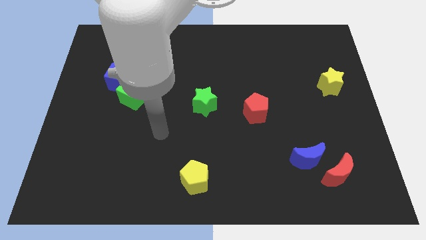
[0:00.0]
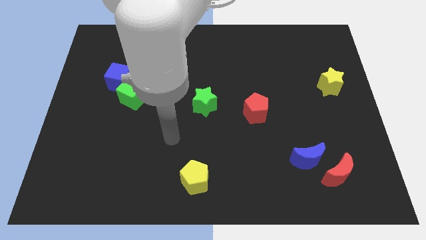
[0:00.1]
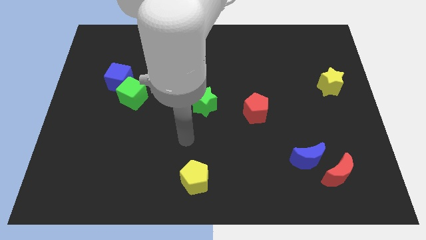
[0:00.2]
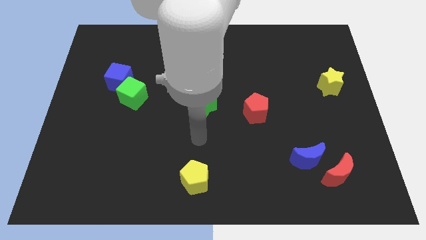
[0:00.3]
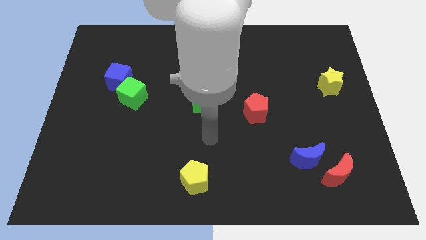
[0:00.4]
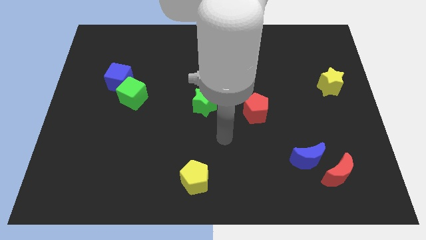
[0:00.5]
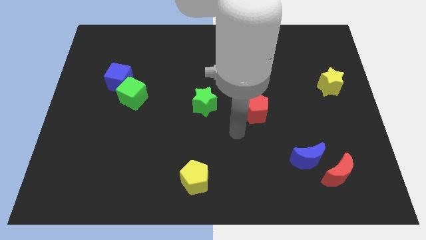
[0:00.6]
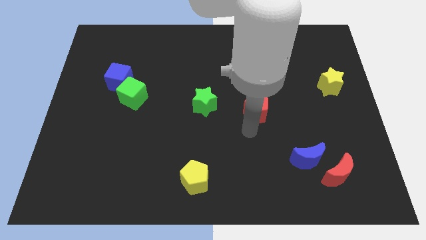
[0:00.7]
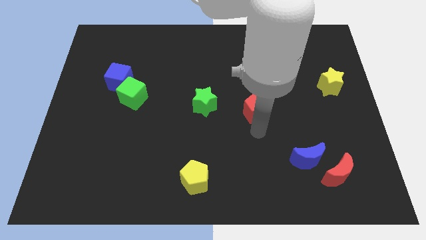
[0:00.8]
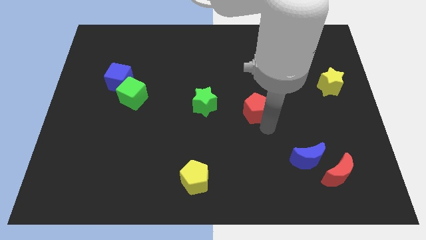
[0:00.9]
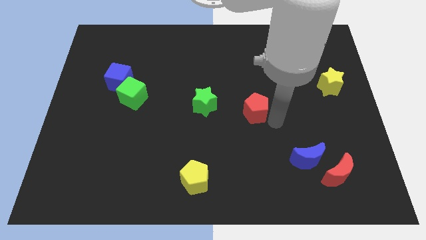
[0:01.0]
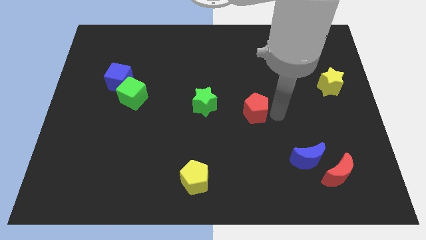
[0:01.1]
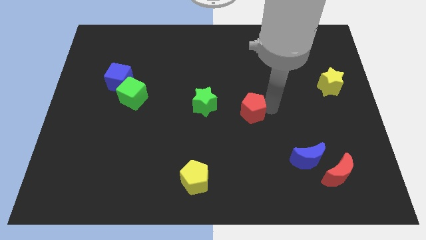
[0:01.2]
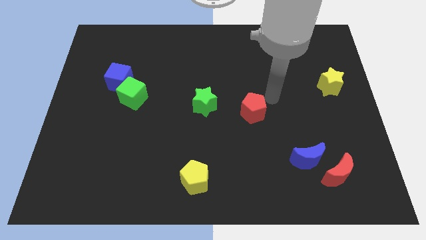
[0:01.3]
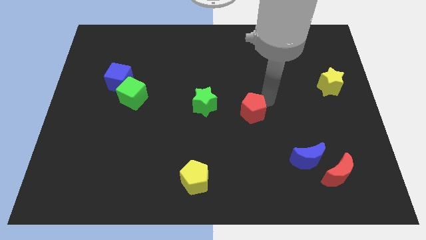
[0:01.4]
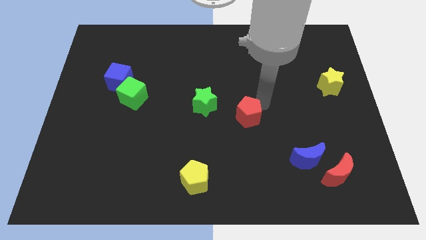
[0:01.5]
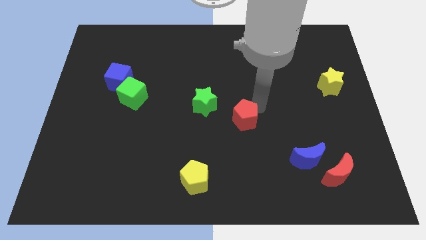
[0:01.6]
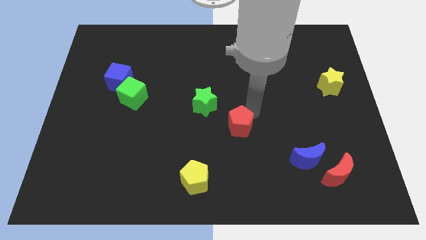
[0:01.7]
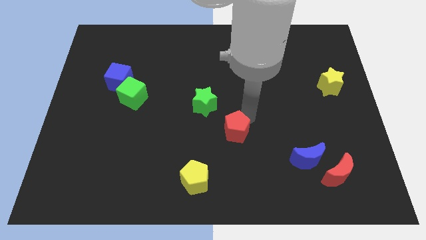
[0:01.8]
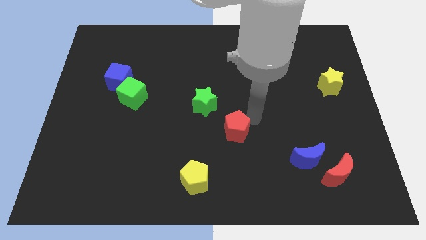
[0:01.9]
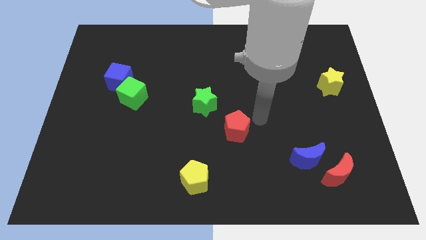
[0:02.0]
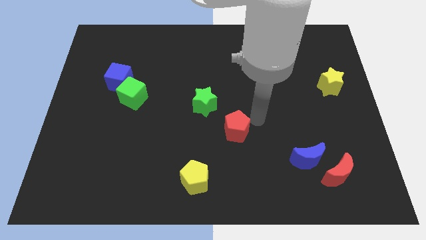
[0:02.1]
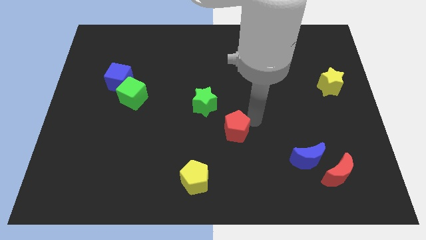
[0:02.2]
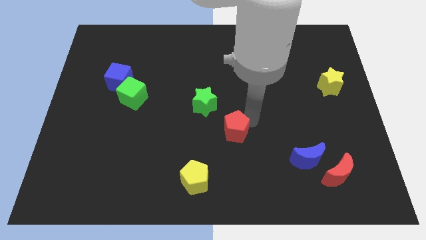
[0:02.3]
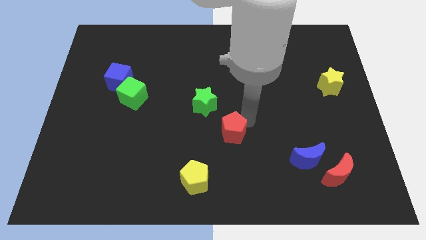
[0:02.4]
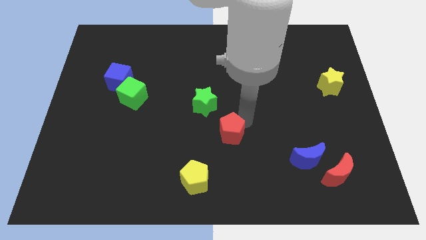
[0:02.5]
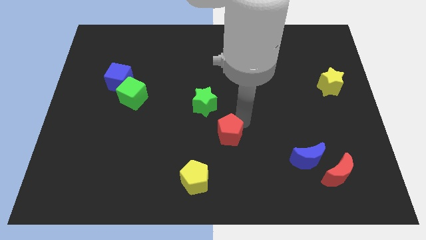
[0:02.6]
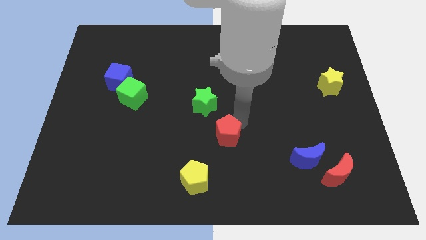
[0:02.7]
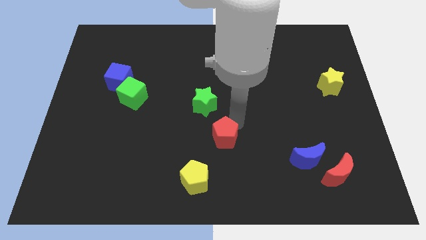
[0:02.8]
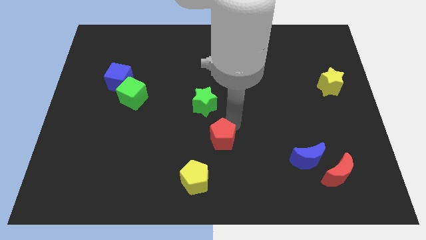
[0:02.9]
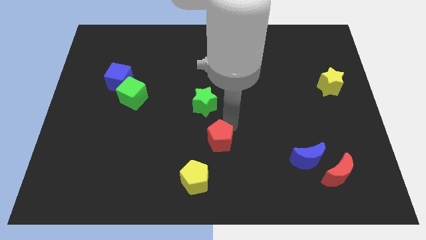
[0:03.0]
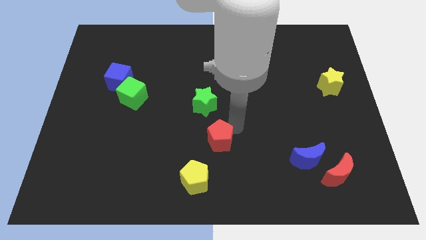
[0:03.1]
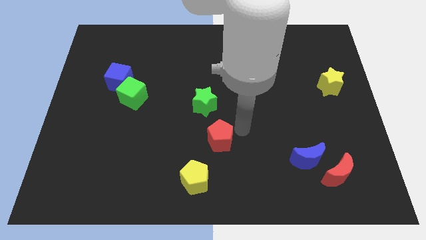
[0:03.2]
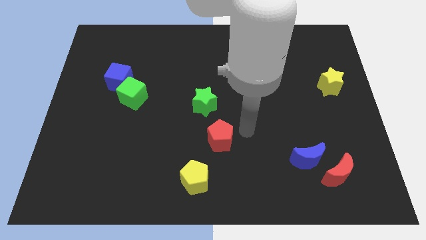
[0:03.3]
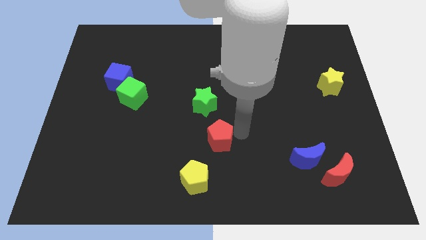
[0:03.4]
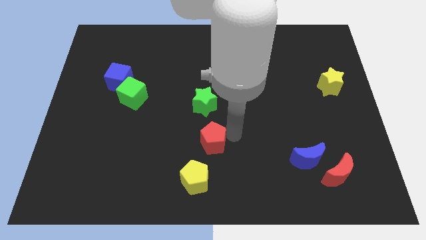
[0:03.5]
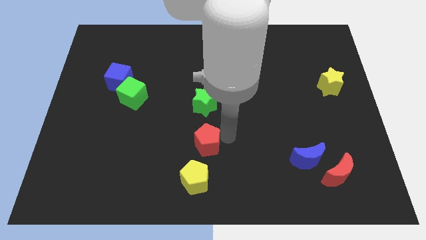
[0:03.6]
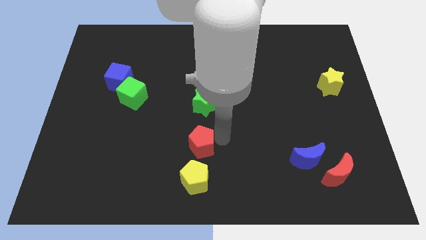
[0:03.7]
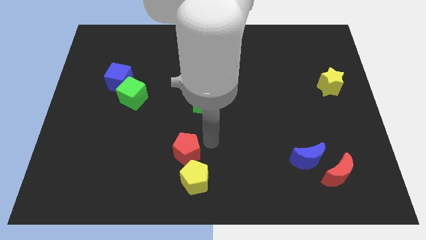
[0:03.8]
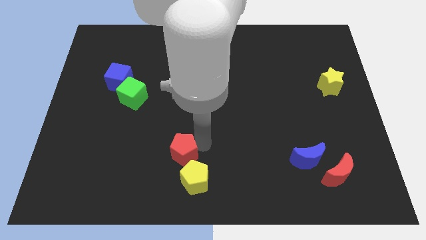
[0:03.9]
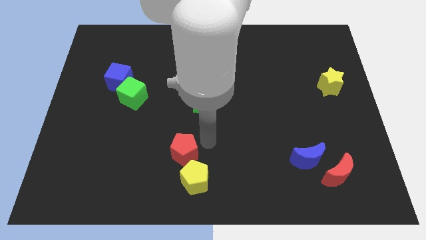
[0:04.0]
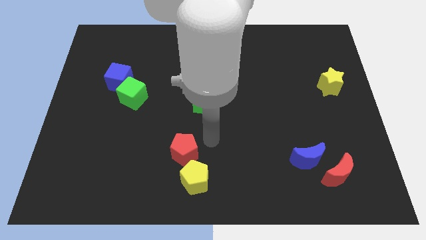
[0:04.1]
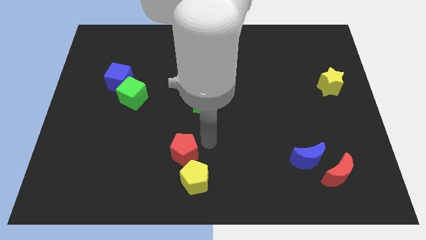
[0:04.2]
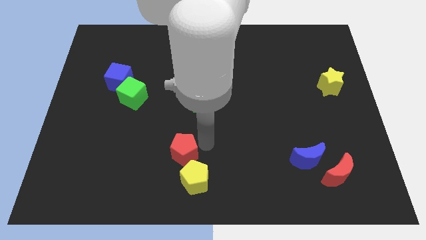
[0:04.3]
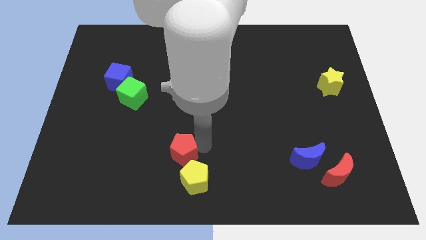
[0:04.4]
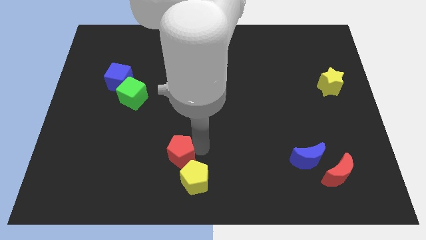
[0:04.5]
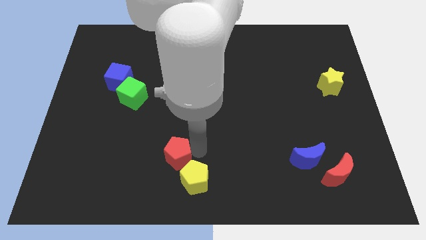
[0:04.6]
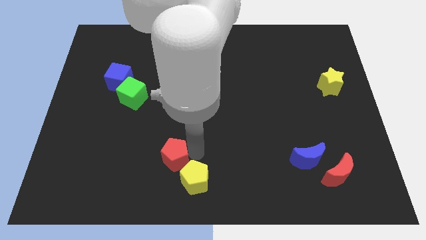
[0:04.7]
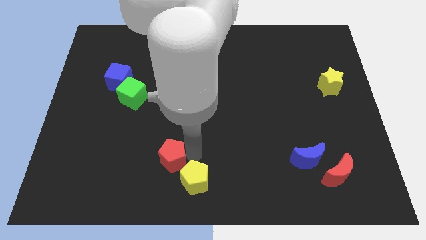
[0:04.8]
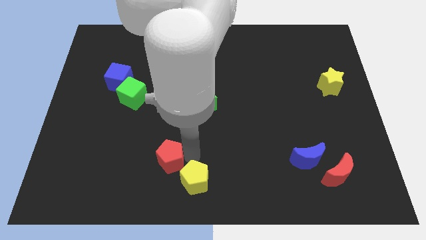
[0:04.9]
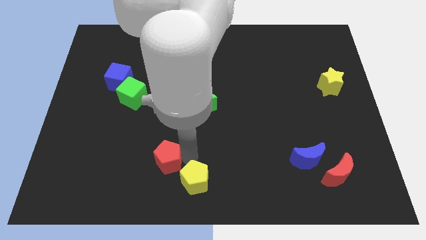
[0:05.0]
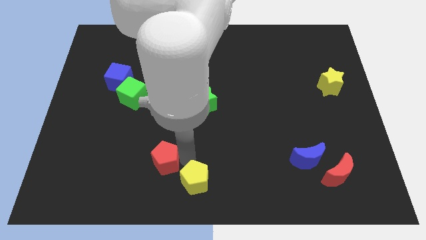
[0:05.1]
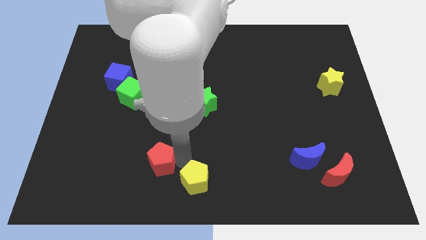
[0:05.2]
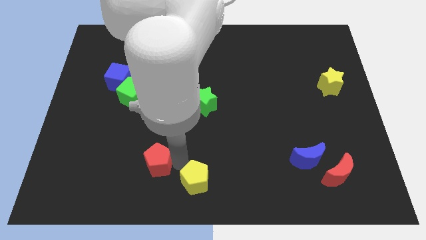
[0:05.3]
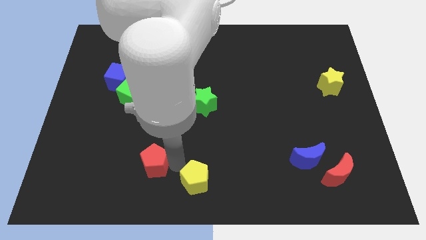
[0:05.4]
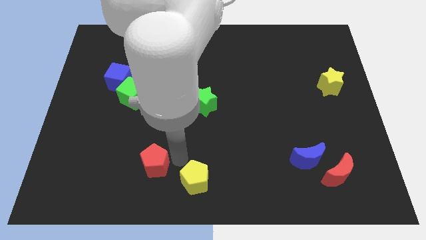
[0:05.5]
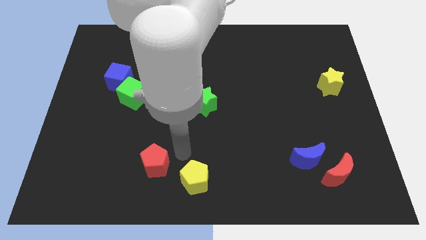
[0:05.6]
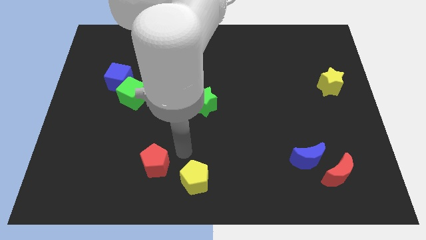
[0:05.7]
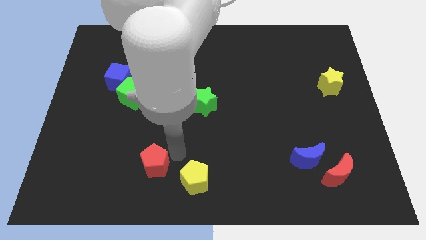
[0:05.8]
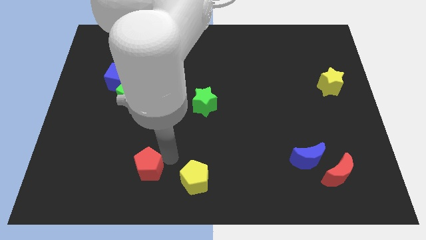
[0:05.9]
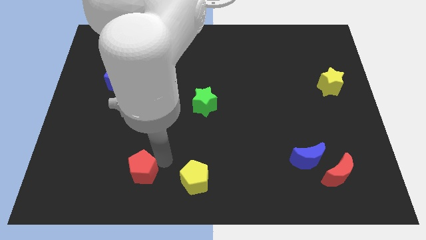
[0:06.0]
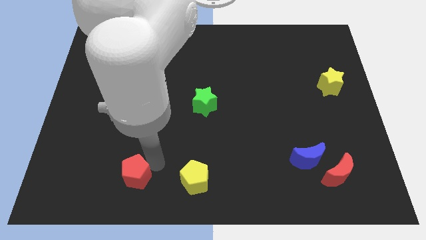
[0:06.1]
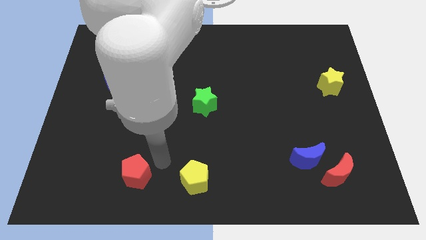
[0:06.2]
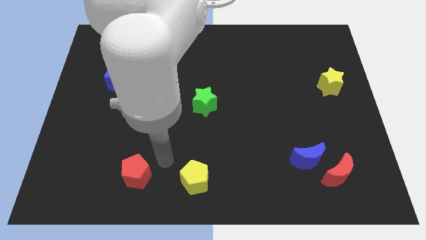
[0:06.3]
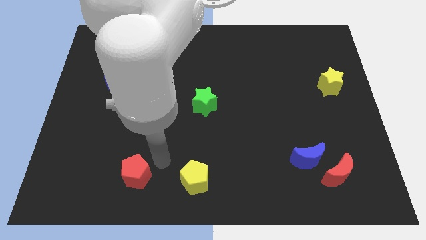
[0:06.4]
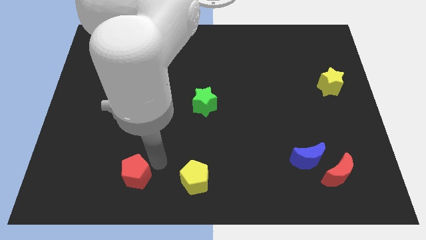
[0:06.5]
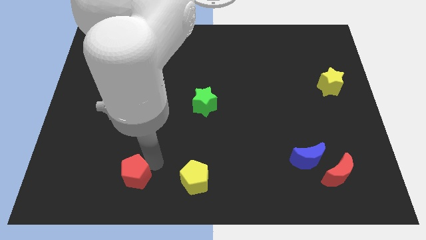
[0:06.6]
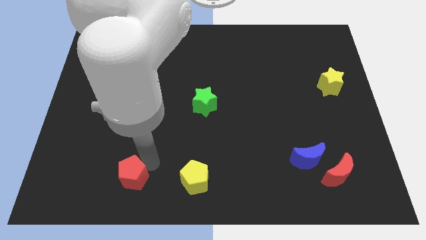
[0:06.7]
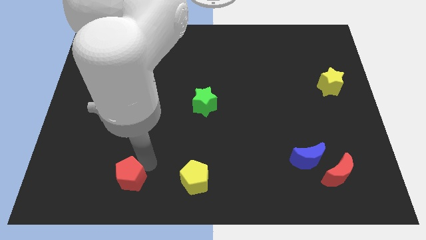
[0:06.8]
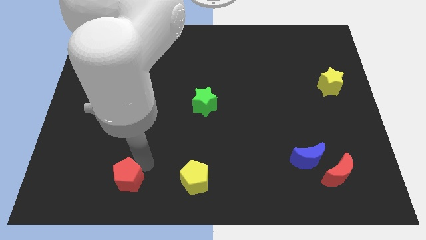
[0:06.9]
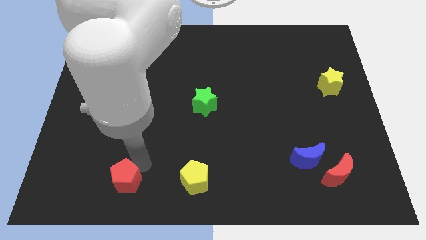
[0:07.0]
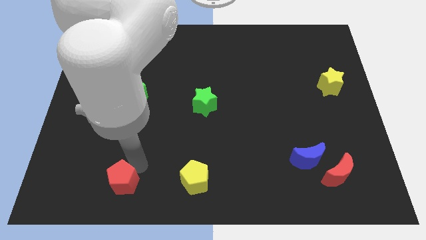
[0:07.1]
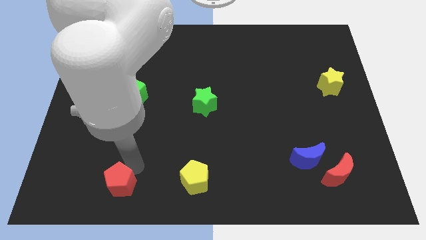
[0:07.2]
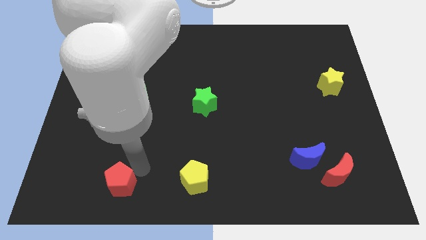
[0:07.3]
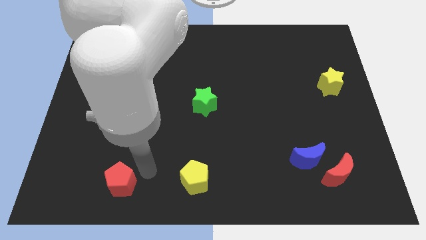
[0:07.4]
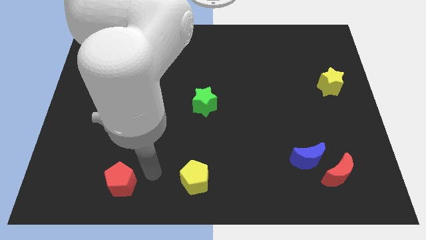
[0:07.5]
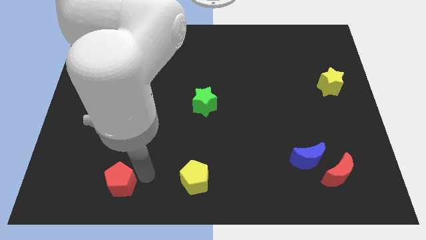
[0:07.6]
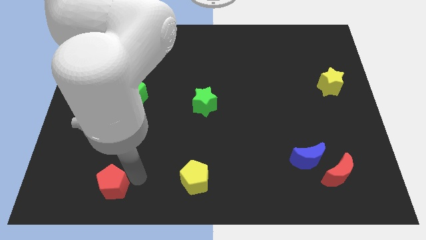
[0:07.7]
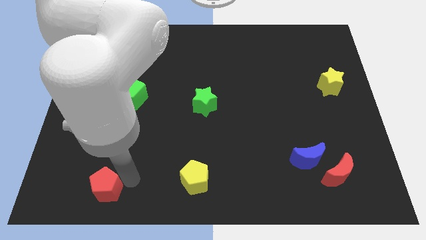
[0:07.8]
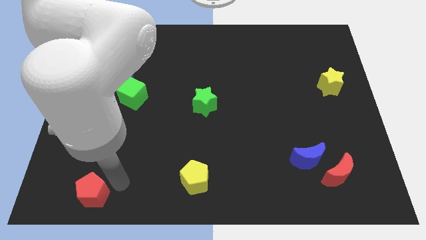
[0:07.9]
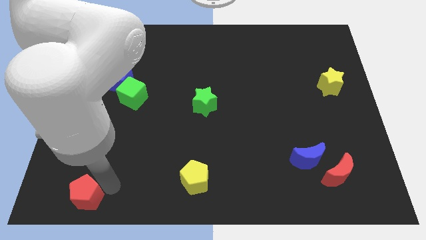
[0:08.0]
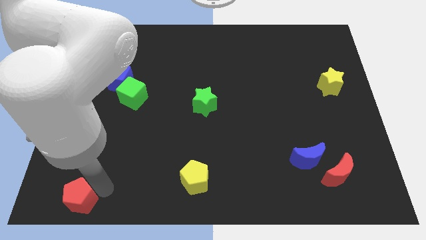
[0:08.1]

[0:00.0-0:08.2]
slide the red pentagon to the bottom left
